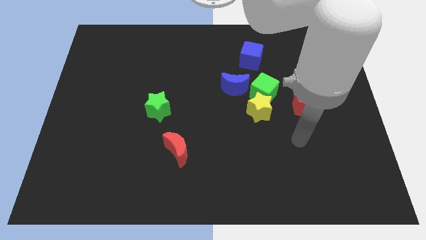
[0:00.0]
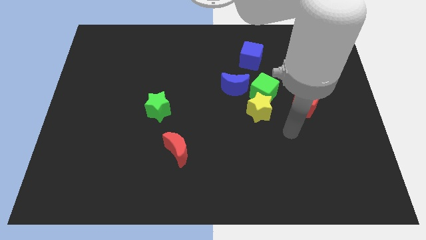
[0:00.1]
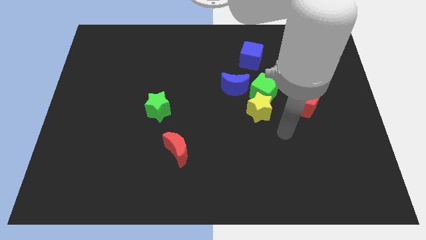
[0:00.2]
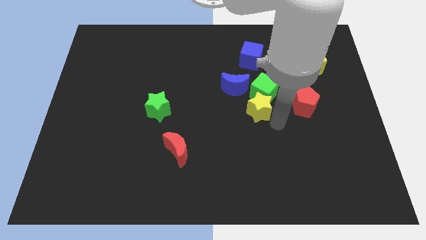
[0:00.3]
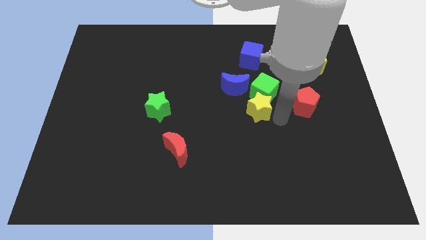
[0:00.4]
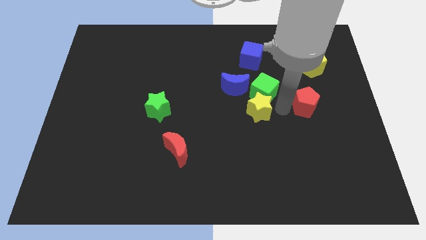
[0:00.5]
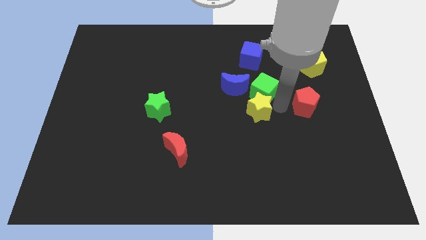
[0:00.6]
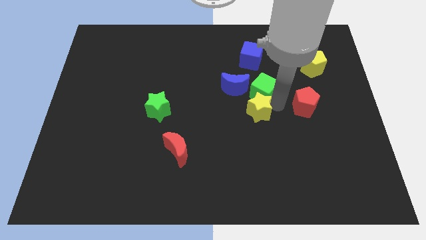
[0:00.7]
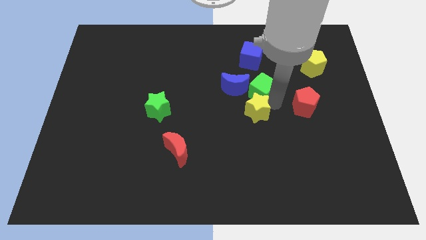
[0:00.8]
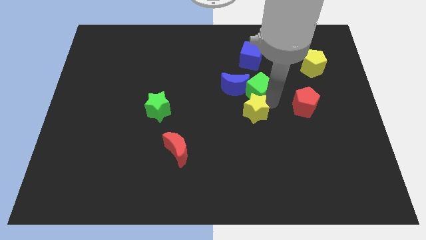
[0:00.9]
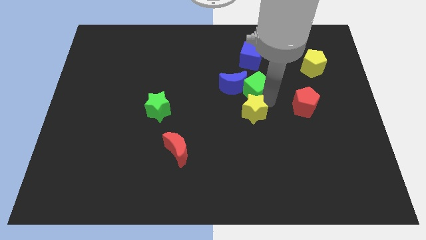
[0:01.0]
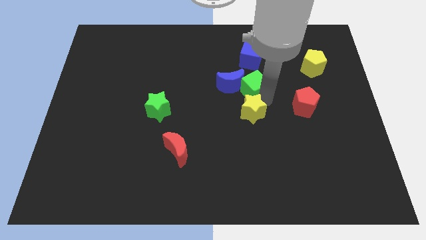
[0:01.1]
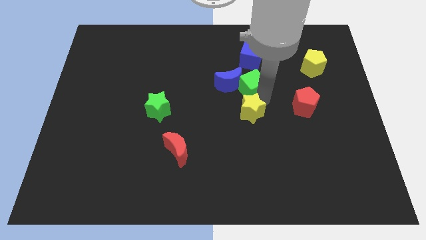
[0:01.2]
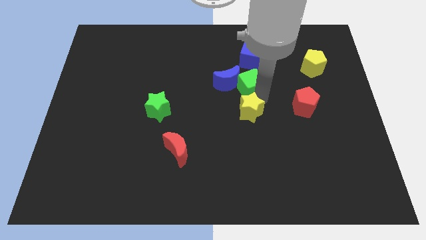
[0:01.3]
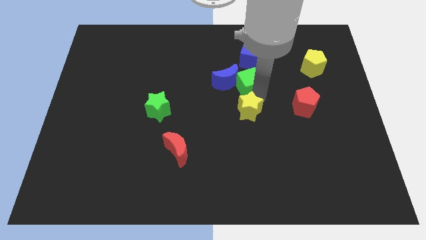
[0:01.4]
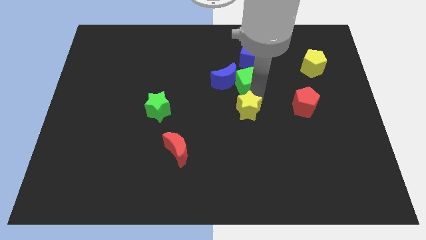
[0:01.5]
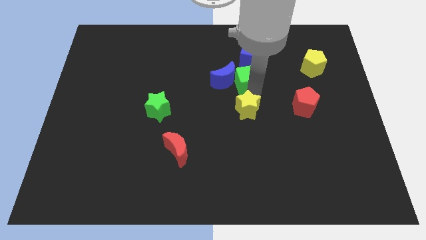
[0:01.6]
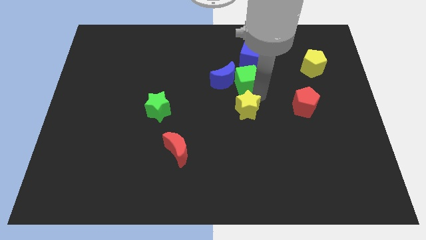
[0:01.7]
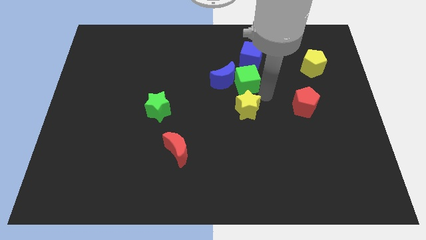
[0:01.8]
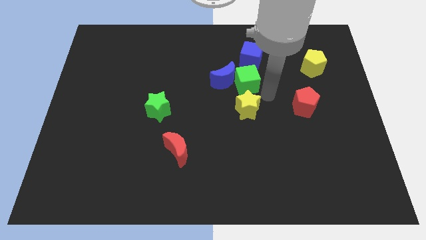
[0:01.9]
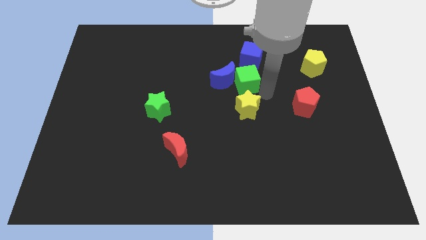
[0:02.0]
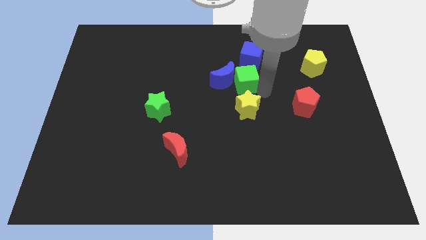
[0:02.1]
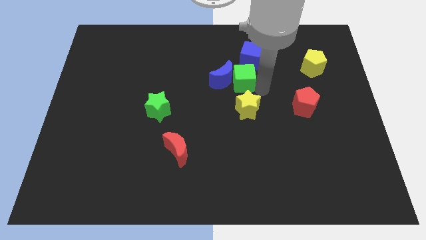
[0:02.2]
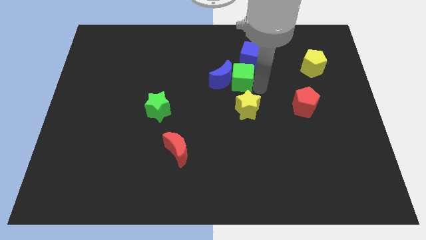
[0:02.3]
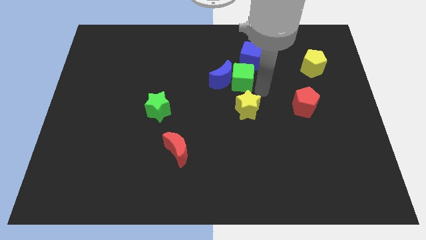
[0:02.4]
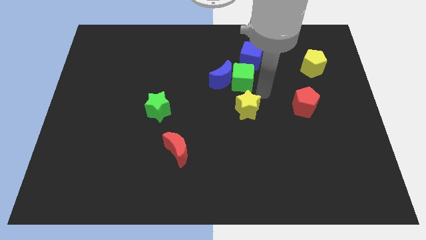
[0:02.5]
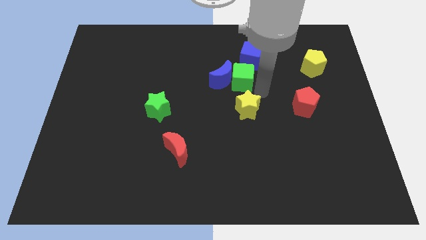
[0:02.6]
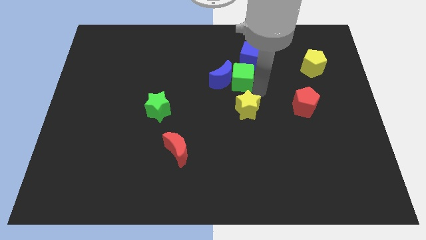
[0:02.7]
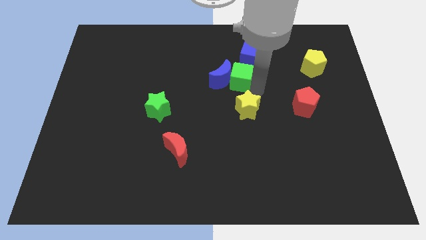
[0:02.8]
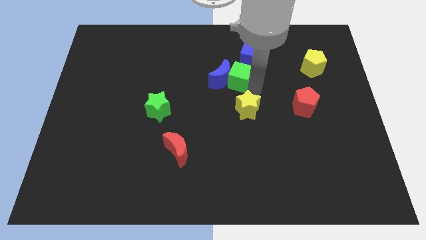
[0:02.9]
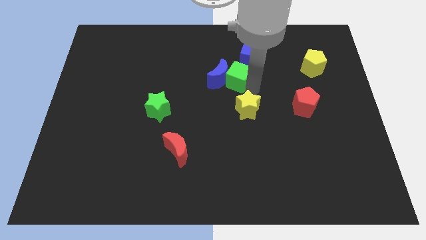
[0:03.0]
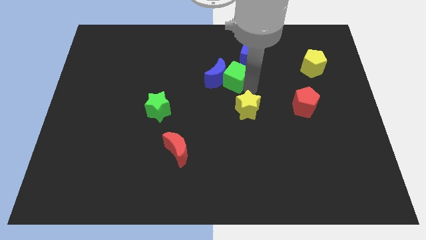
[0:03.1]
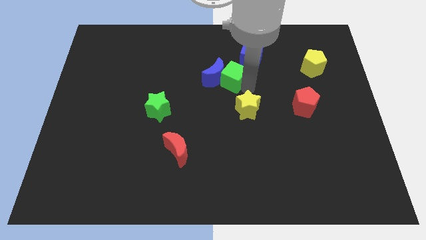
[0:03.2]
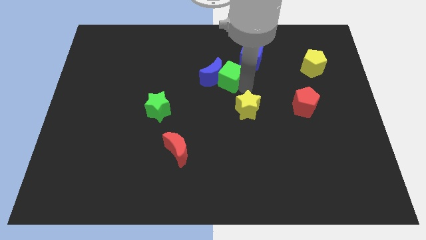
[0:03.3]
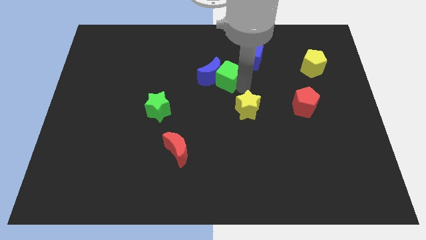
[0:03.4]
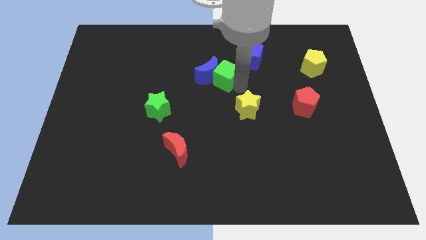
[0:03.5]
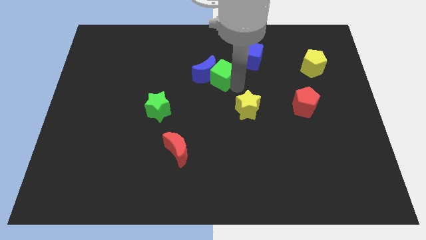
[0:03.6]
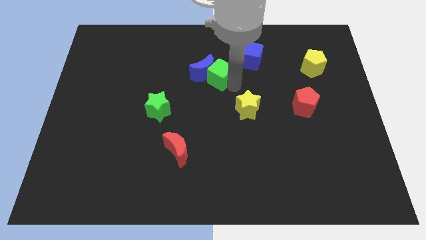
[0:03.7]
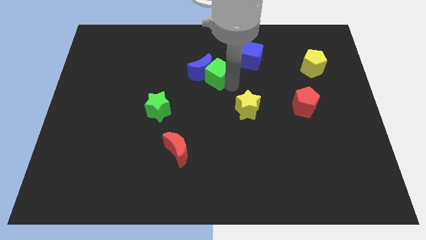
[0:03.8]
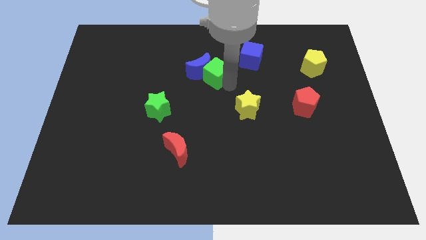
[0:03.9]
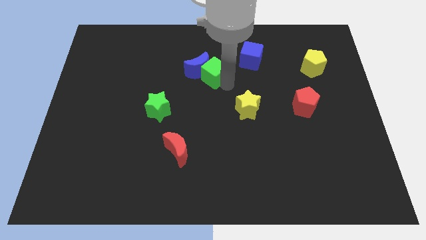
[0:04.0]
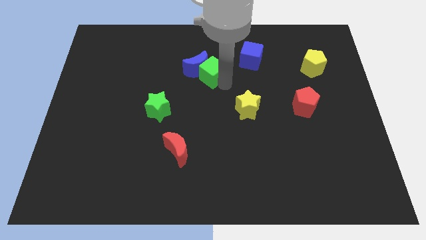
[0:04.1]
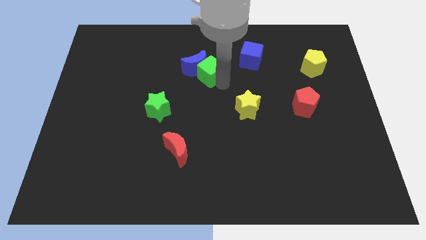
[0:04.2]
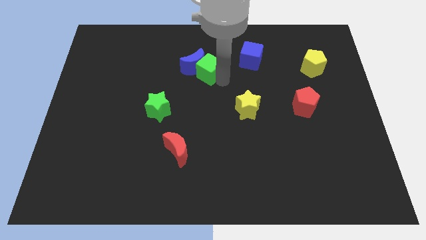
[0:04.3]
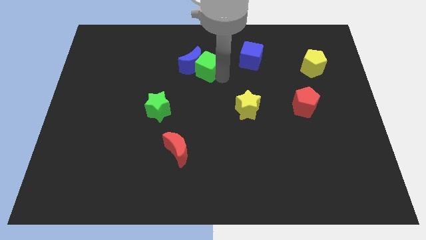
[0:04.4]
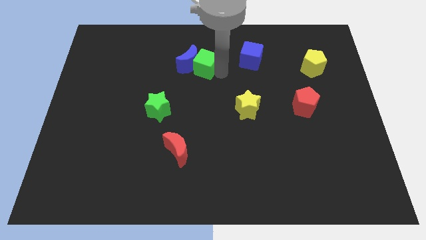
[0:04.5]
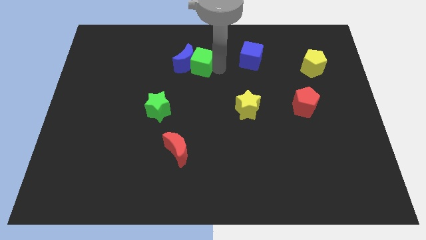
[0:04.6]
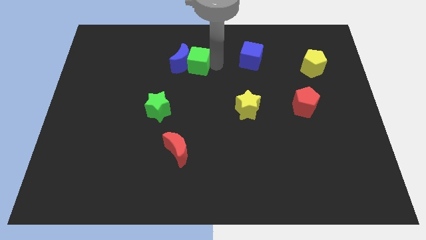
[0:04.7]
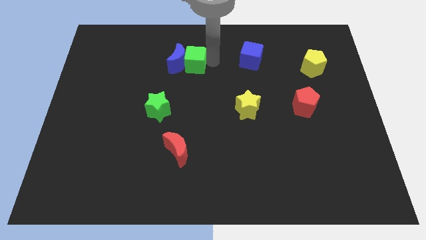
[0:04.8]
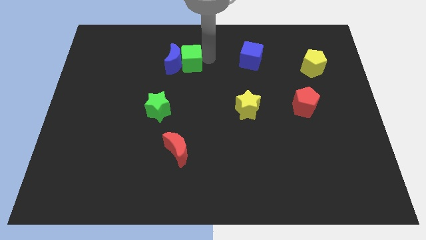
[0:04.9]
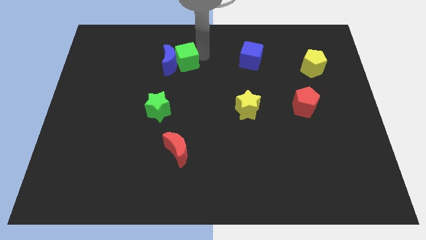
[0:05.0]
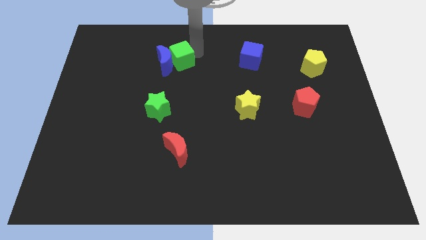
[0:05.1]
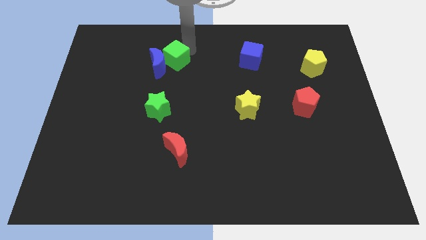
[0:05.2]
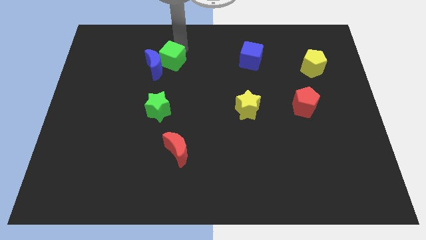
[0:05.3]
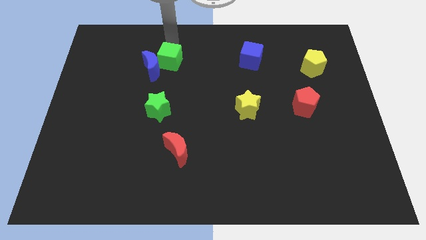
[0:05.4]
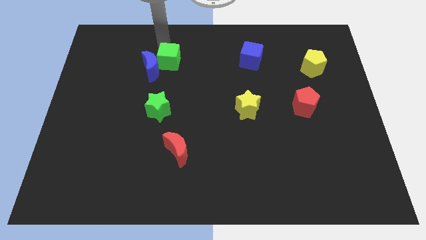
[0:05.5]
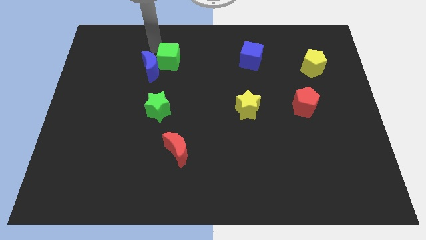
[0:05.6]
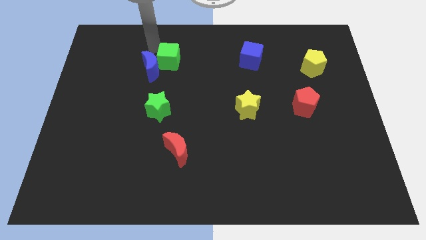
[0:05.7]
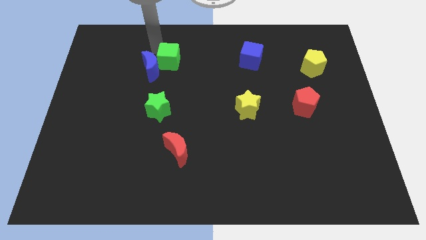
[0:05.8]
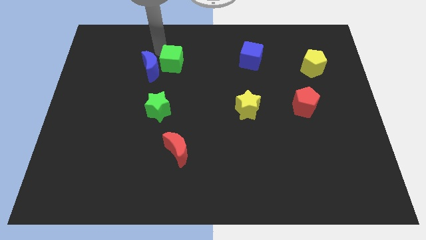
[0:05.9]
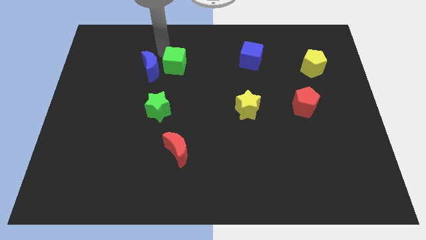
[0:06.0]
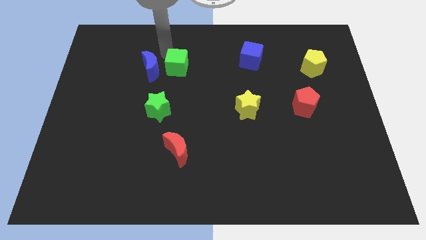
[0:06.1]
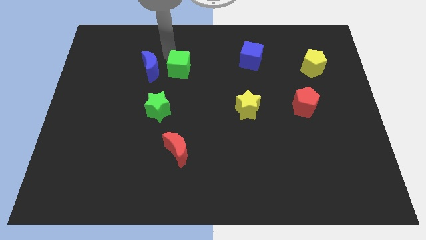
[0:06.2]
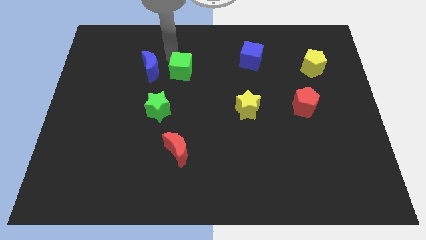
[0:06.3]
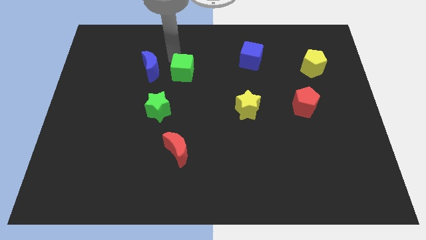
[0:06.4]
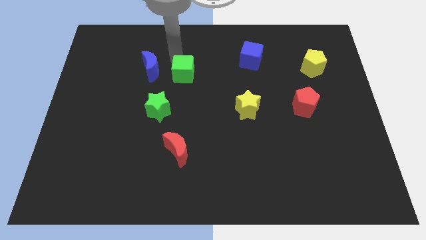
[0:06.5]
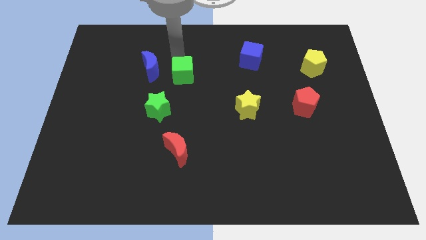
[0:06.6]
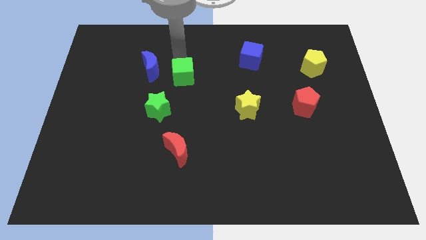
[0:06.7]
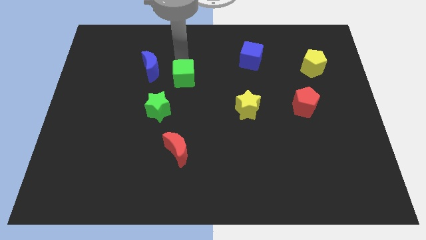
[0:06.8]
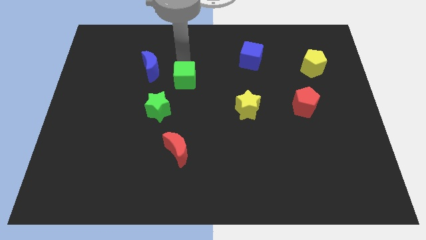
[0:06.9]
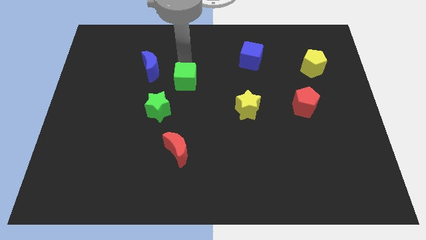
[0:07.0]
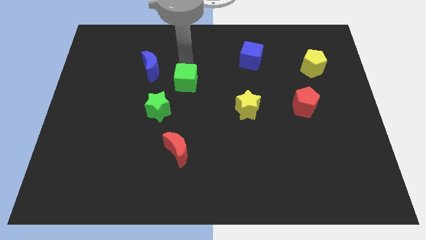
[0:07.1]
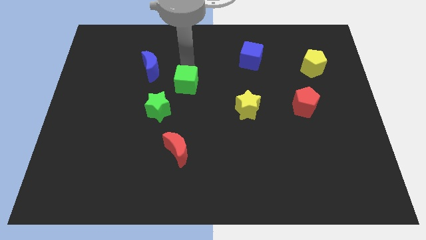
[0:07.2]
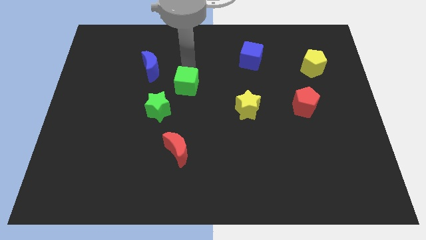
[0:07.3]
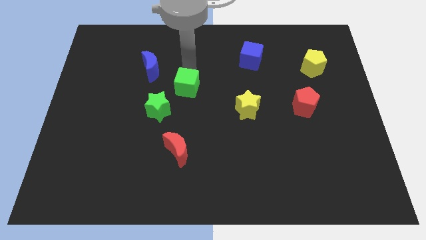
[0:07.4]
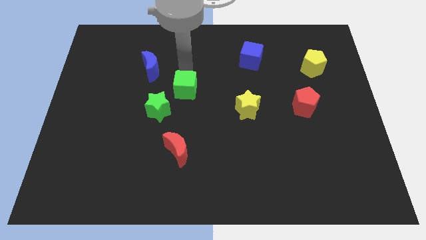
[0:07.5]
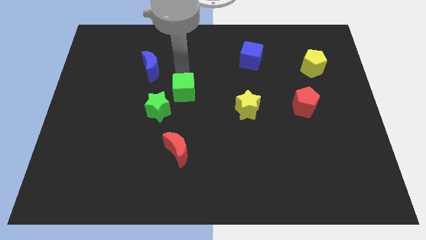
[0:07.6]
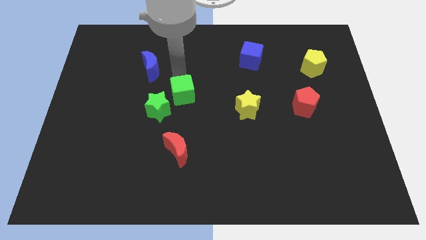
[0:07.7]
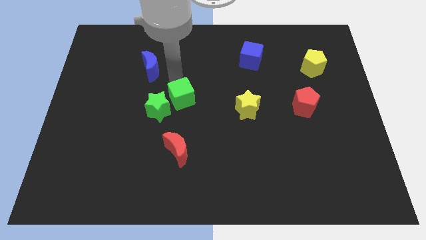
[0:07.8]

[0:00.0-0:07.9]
push the green cube towards the green star
